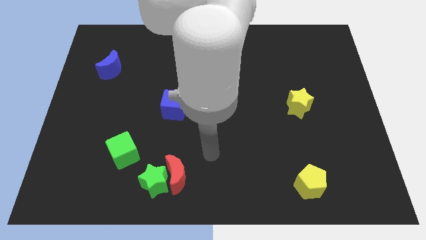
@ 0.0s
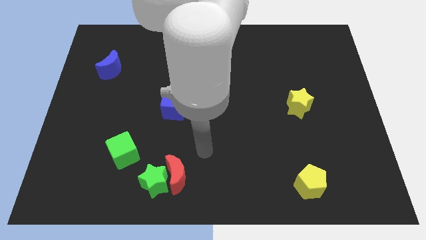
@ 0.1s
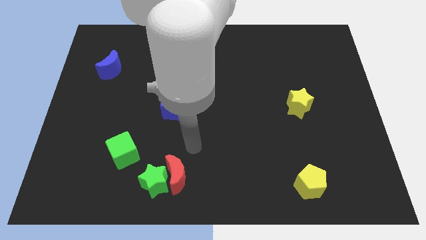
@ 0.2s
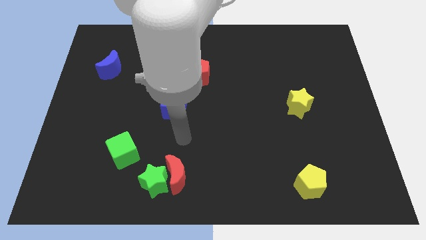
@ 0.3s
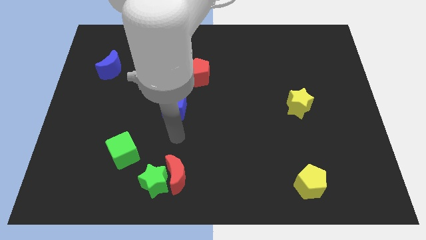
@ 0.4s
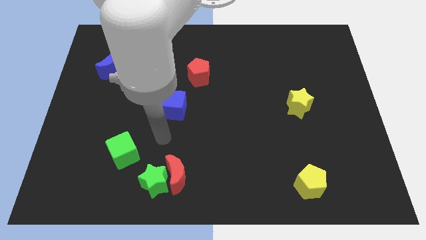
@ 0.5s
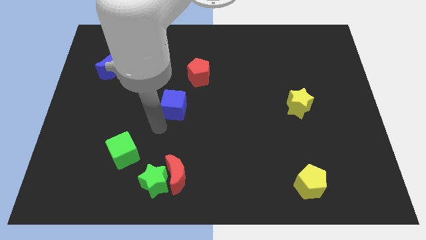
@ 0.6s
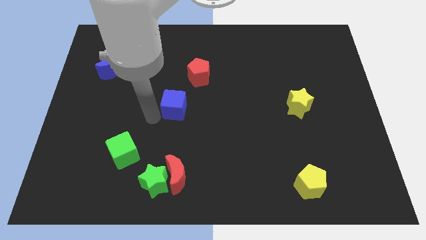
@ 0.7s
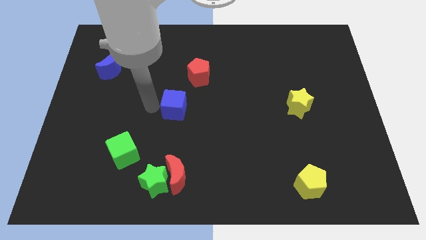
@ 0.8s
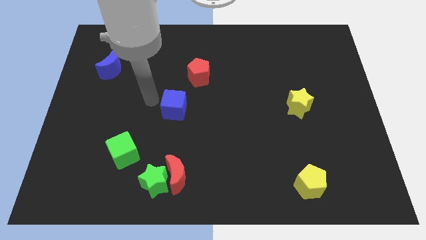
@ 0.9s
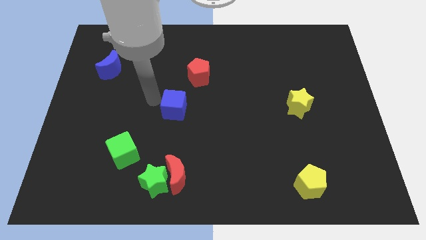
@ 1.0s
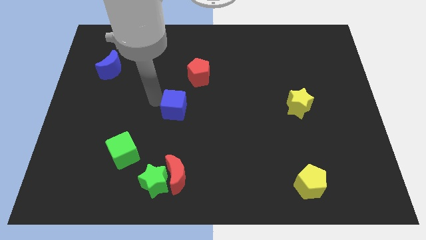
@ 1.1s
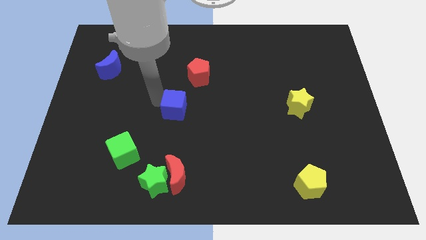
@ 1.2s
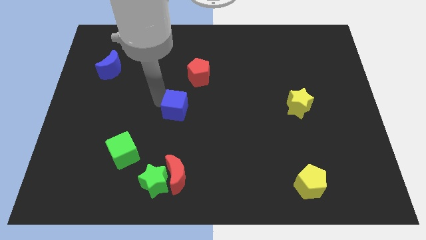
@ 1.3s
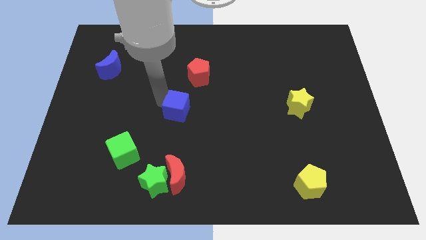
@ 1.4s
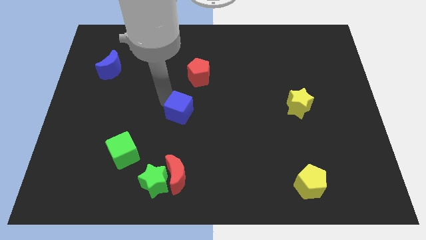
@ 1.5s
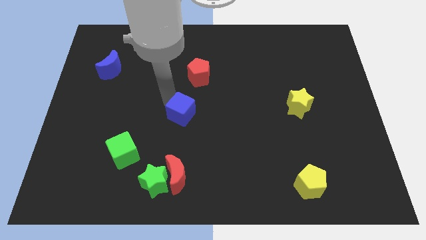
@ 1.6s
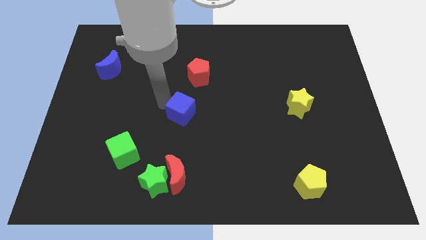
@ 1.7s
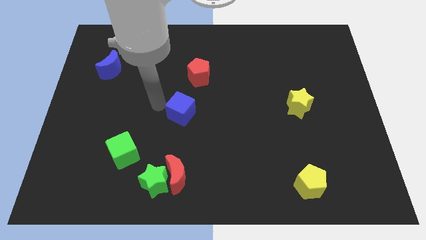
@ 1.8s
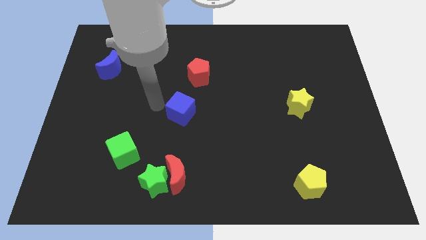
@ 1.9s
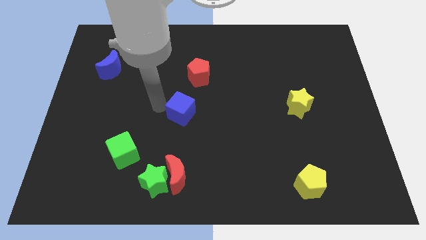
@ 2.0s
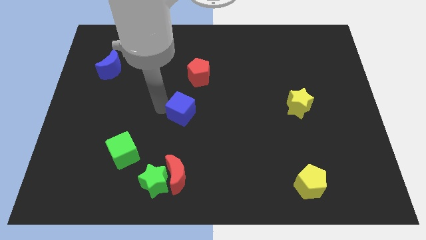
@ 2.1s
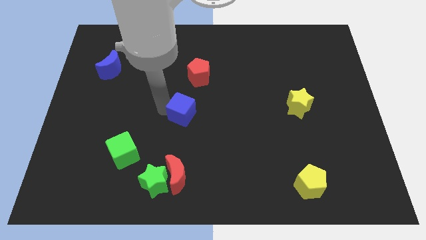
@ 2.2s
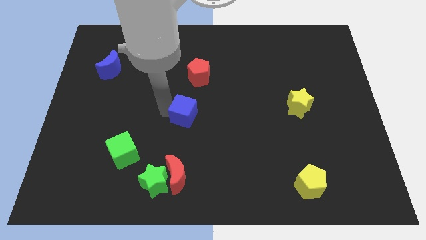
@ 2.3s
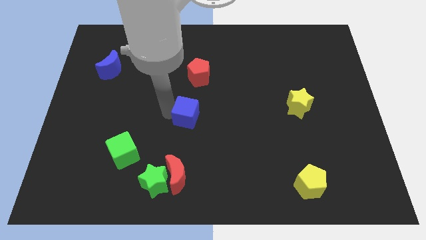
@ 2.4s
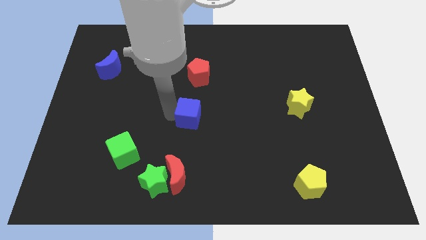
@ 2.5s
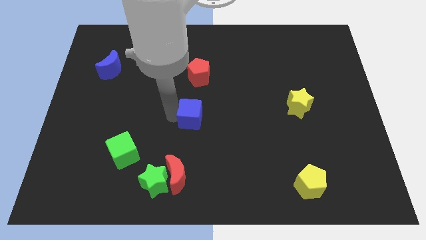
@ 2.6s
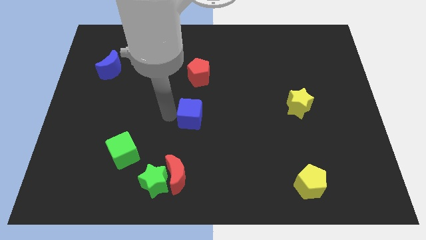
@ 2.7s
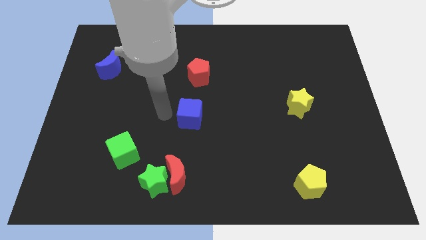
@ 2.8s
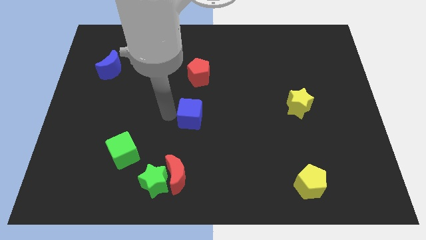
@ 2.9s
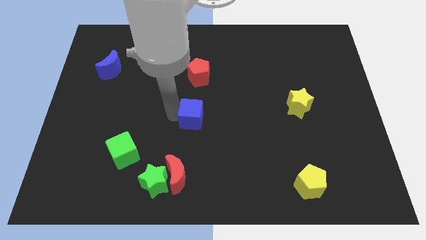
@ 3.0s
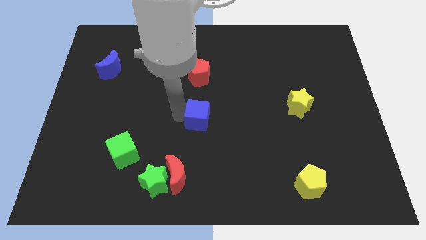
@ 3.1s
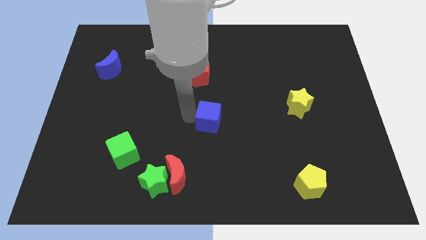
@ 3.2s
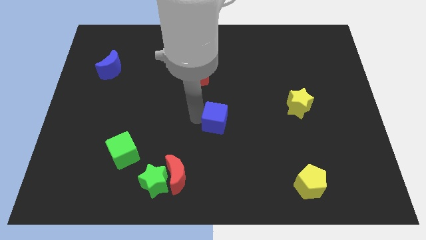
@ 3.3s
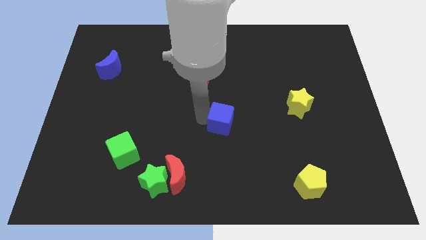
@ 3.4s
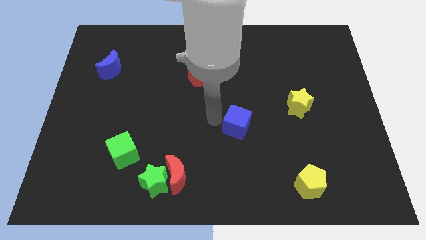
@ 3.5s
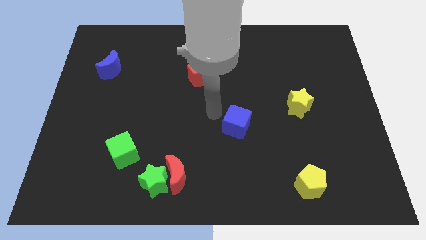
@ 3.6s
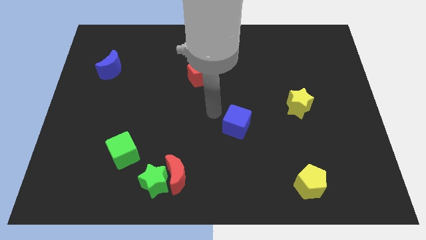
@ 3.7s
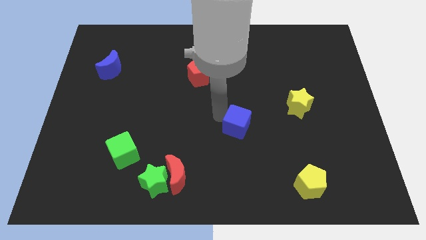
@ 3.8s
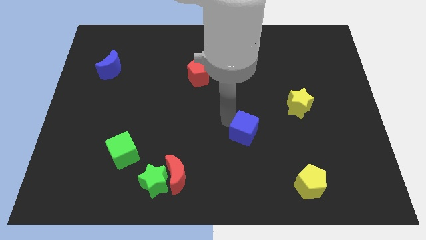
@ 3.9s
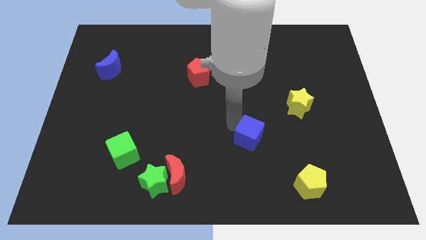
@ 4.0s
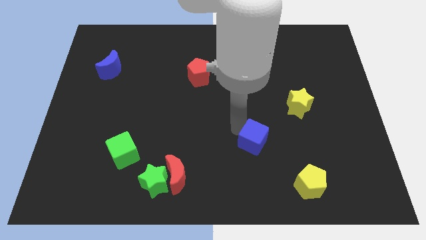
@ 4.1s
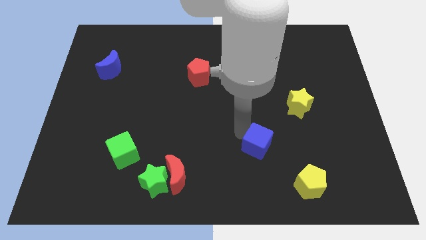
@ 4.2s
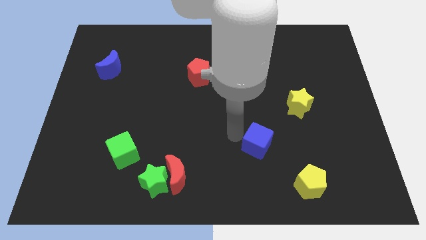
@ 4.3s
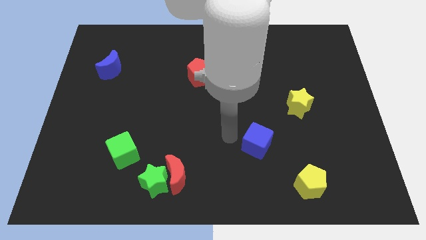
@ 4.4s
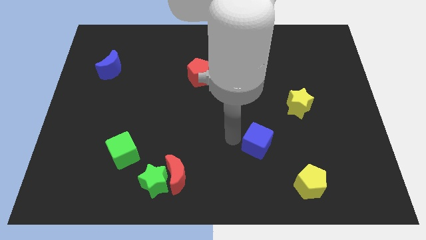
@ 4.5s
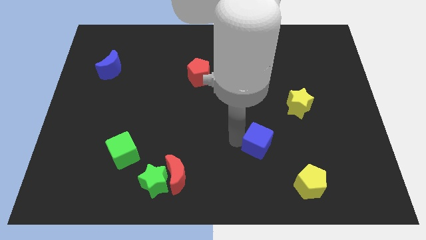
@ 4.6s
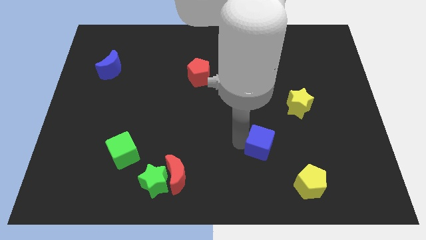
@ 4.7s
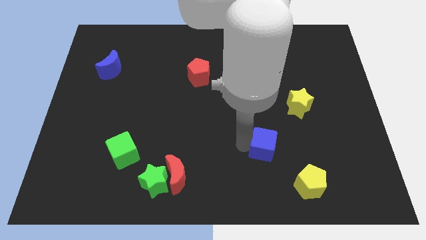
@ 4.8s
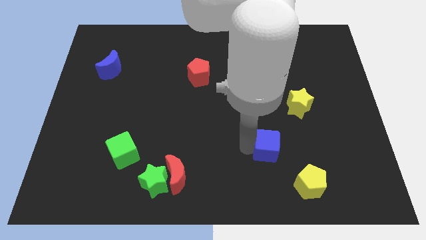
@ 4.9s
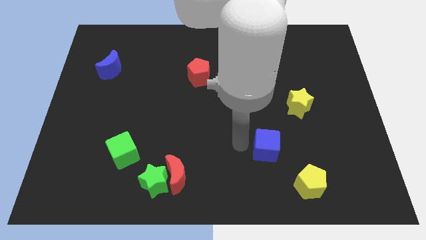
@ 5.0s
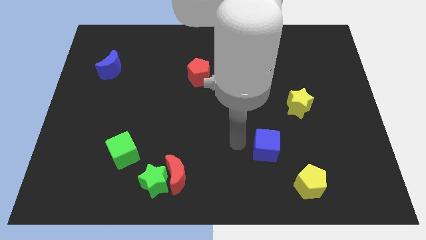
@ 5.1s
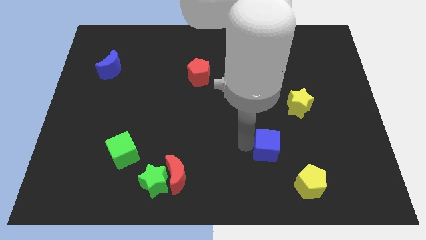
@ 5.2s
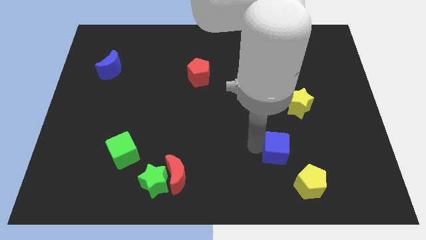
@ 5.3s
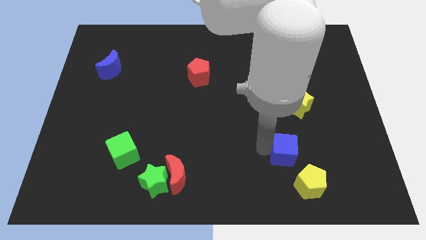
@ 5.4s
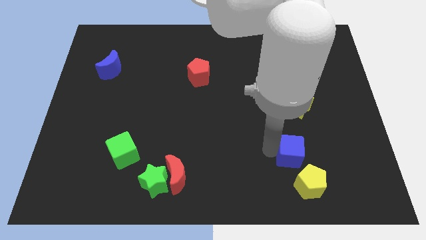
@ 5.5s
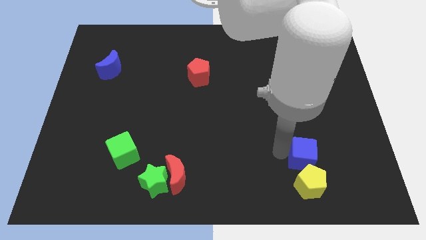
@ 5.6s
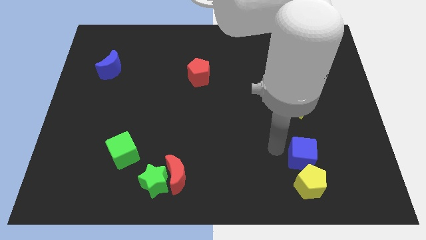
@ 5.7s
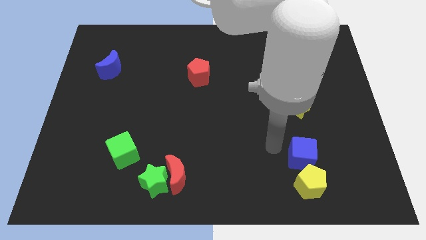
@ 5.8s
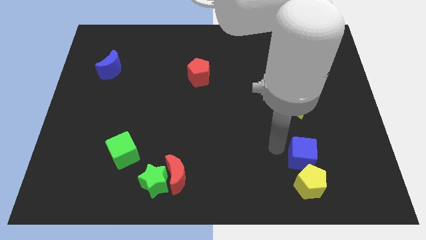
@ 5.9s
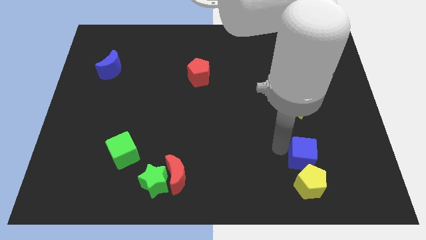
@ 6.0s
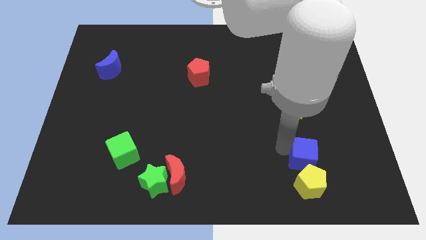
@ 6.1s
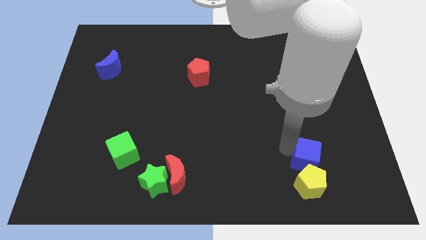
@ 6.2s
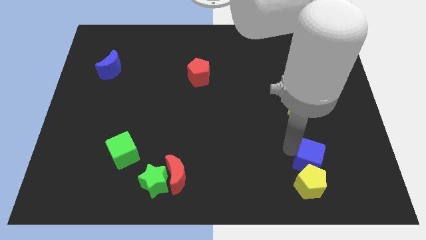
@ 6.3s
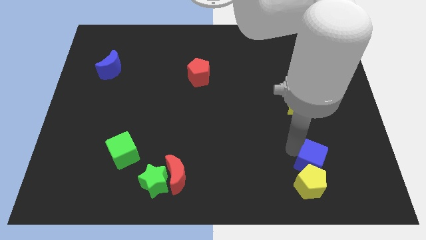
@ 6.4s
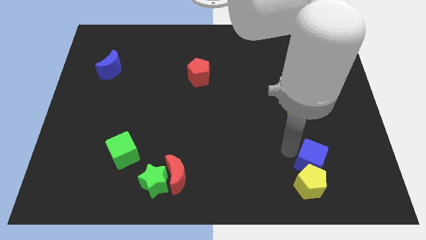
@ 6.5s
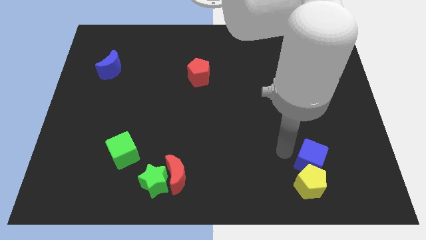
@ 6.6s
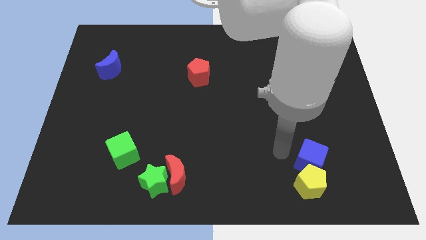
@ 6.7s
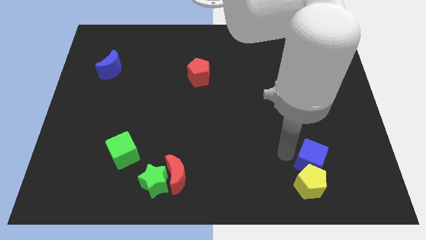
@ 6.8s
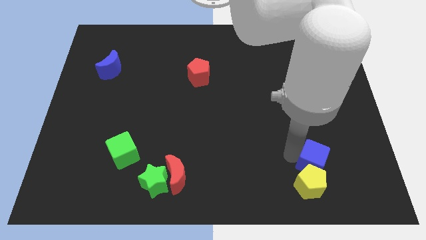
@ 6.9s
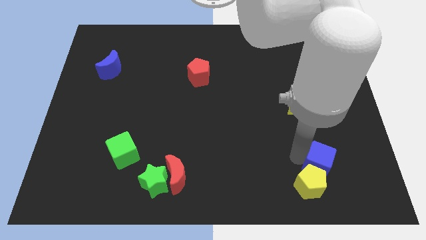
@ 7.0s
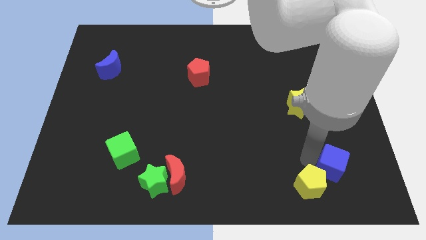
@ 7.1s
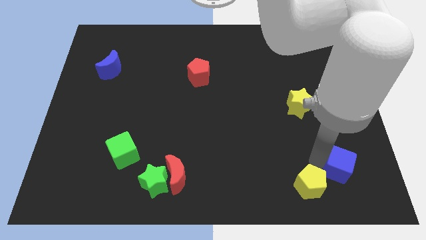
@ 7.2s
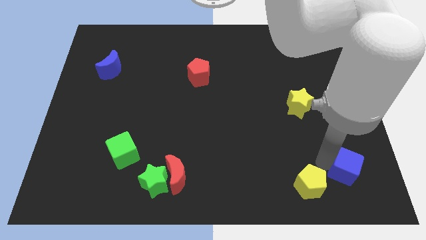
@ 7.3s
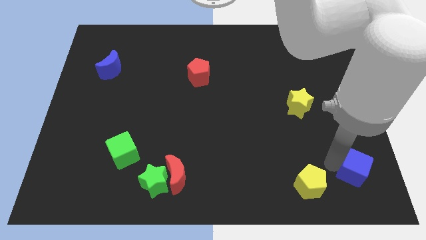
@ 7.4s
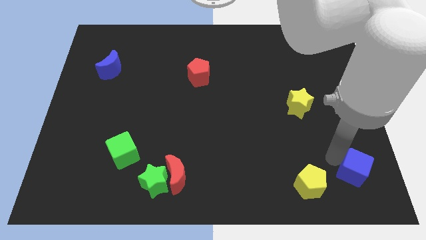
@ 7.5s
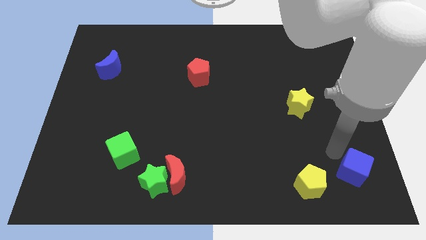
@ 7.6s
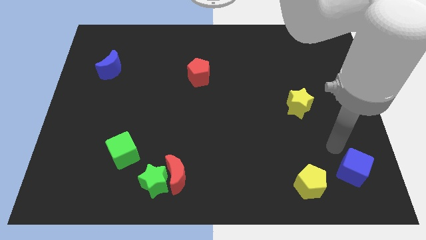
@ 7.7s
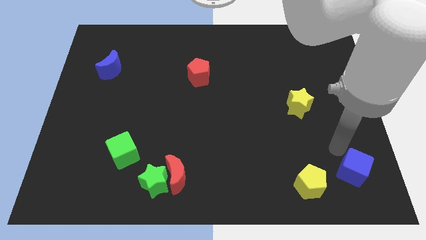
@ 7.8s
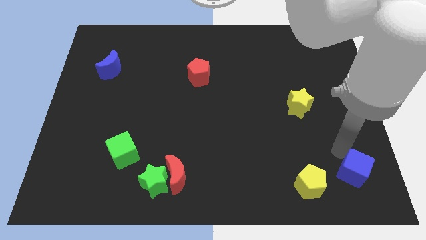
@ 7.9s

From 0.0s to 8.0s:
slide the blue cube to the bottom right corner
